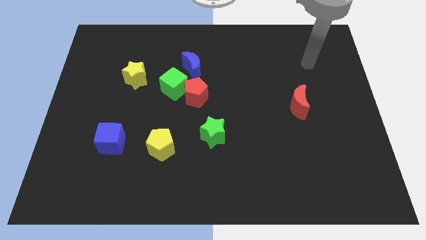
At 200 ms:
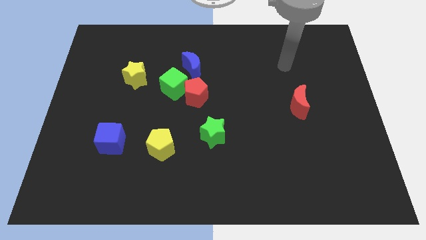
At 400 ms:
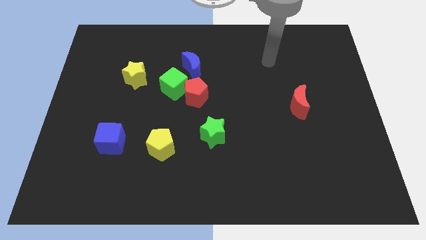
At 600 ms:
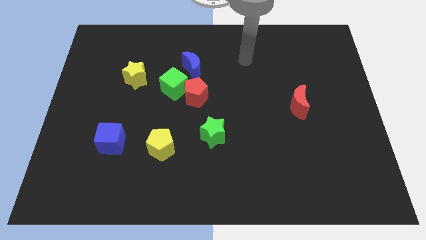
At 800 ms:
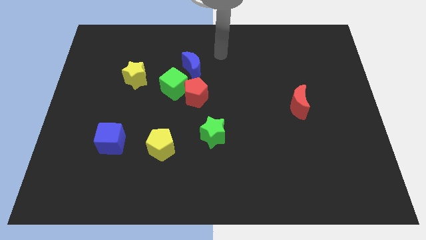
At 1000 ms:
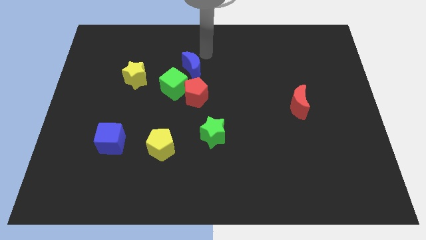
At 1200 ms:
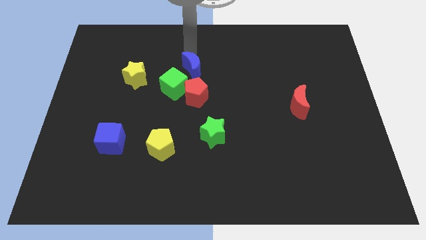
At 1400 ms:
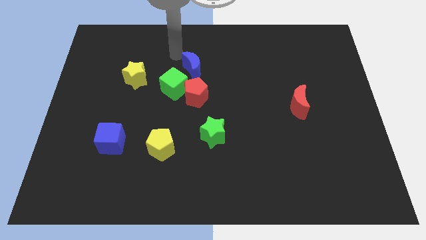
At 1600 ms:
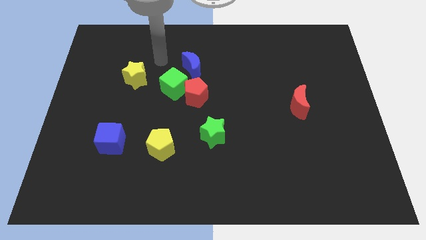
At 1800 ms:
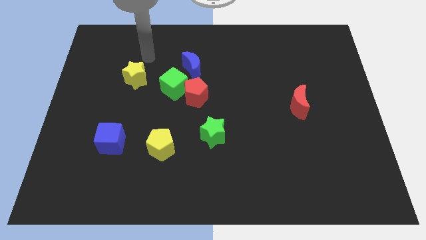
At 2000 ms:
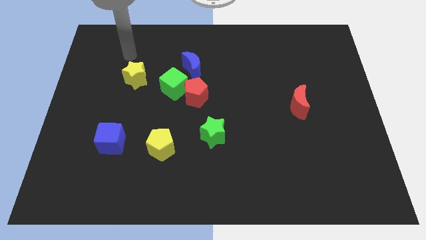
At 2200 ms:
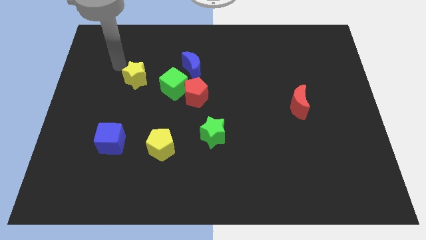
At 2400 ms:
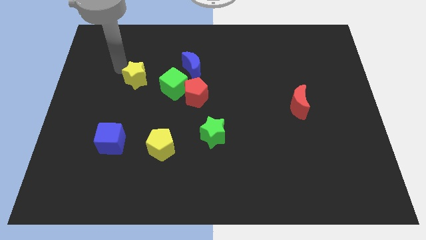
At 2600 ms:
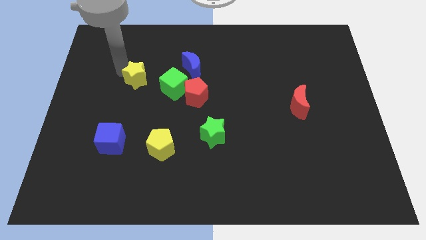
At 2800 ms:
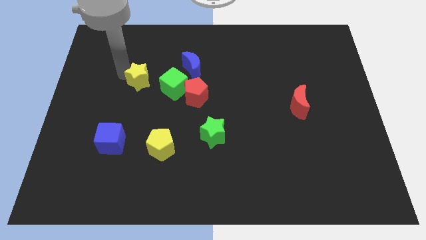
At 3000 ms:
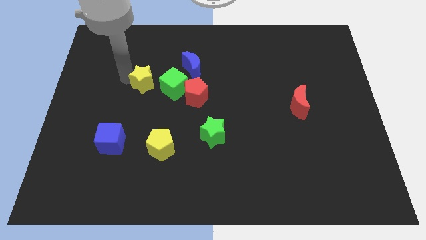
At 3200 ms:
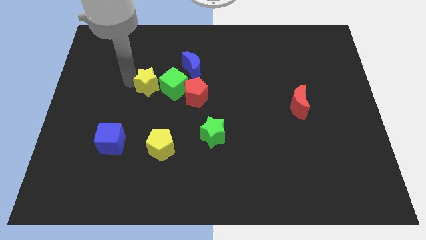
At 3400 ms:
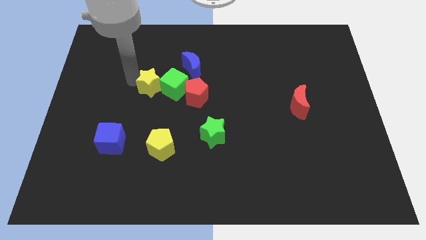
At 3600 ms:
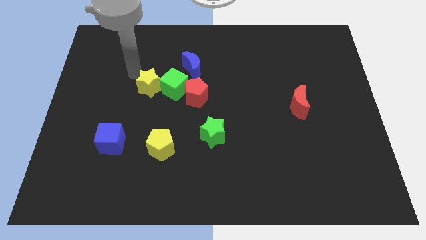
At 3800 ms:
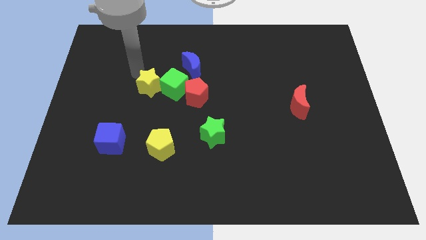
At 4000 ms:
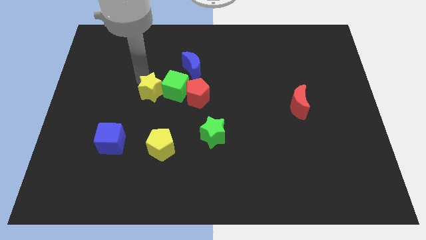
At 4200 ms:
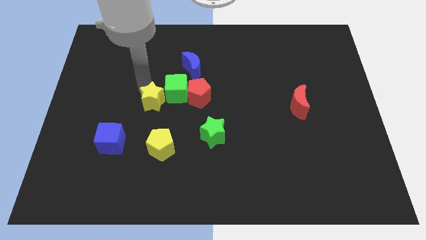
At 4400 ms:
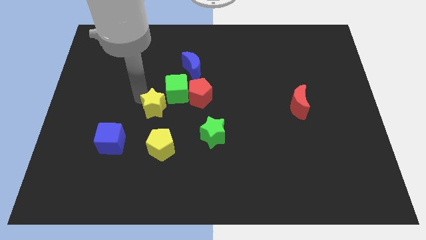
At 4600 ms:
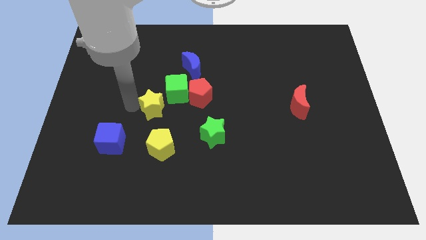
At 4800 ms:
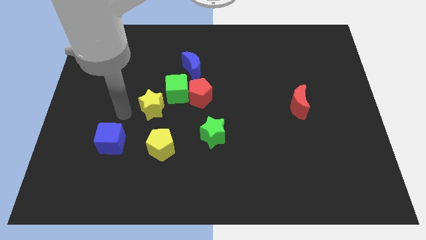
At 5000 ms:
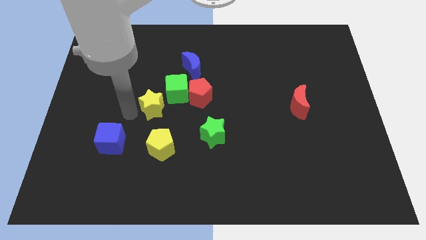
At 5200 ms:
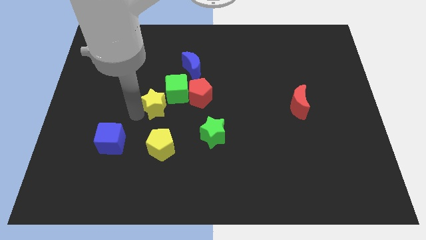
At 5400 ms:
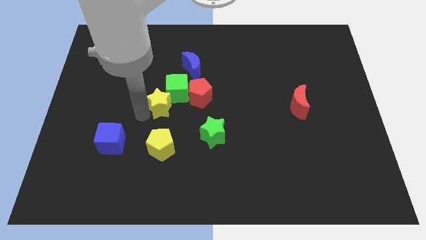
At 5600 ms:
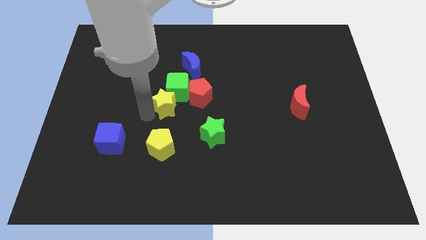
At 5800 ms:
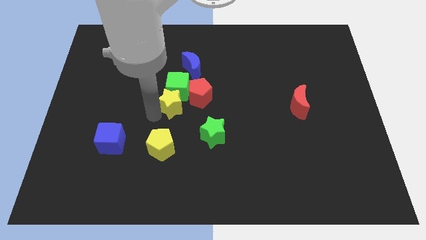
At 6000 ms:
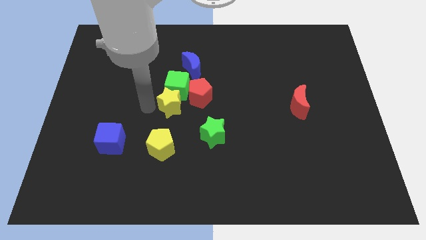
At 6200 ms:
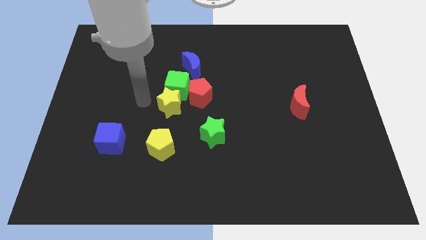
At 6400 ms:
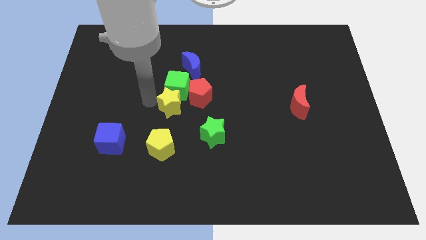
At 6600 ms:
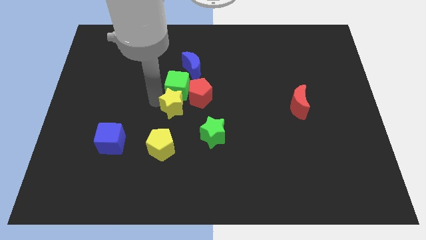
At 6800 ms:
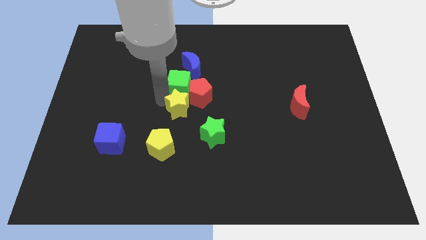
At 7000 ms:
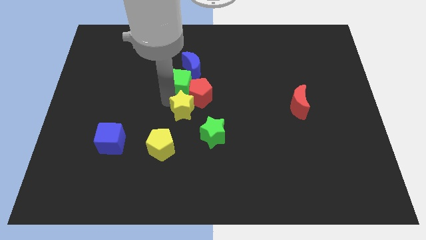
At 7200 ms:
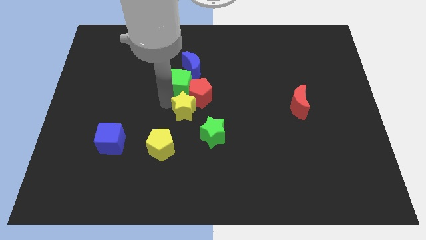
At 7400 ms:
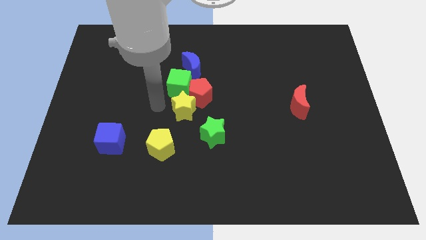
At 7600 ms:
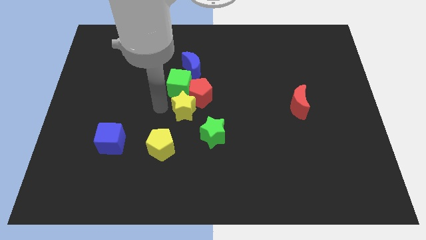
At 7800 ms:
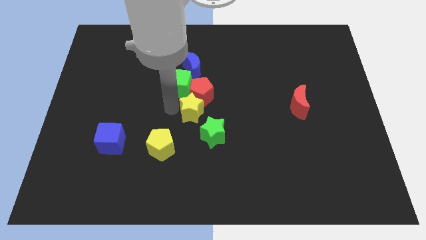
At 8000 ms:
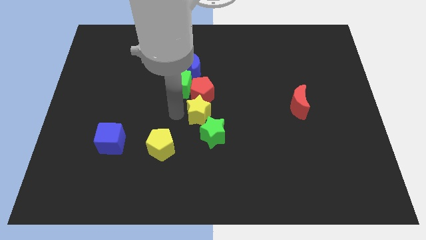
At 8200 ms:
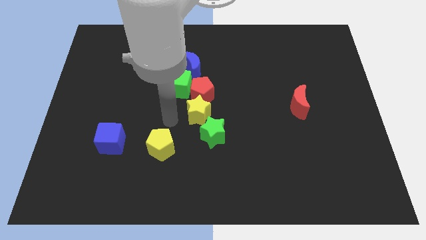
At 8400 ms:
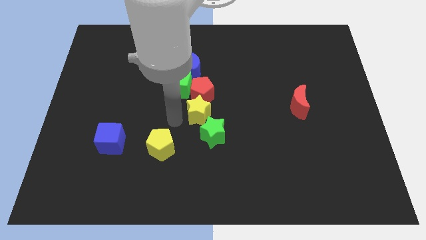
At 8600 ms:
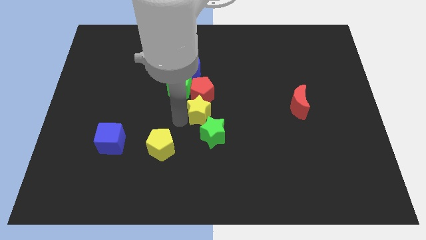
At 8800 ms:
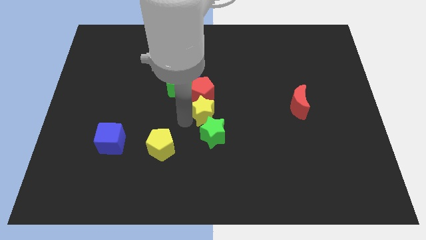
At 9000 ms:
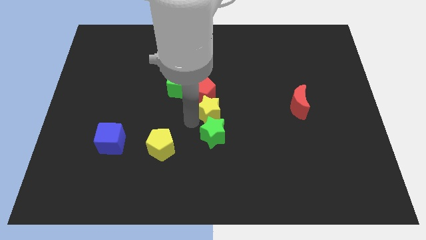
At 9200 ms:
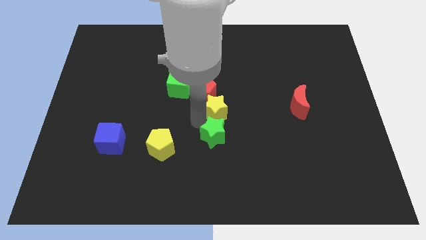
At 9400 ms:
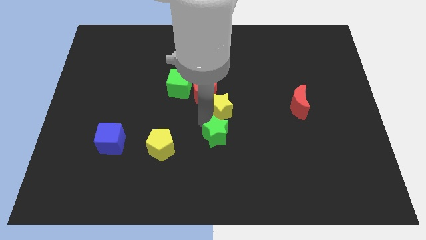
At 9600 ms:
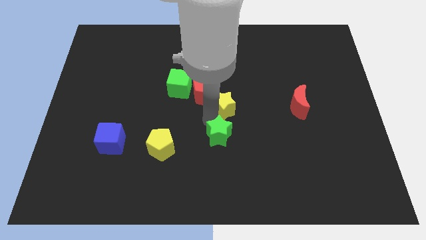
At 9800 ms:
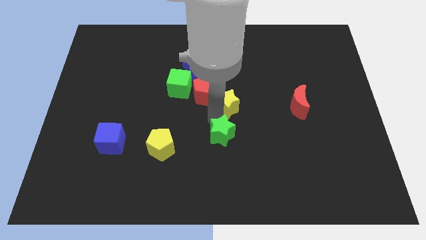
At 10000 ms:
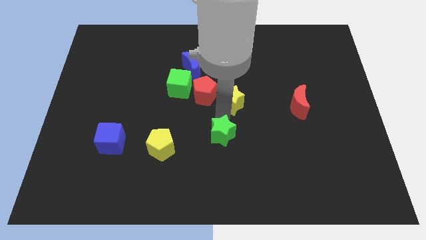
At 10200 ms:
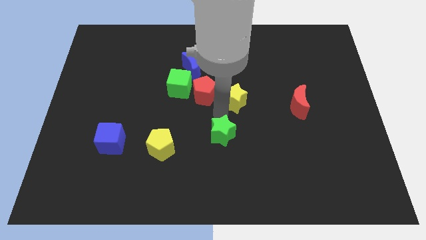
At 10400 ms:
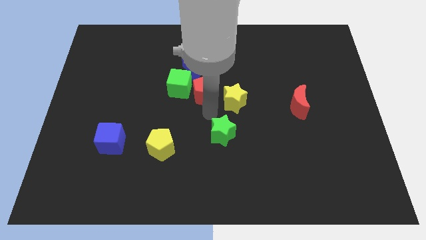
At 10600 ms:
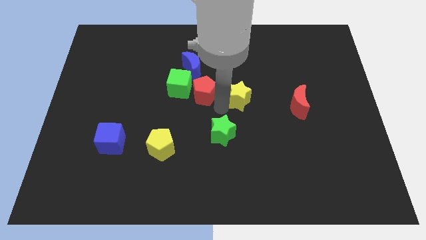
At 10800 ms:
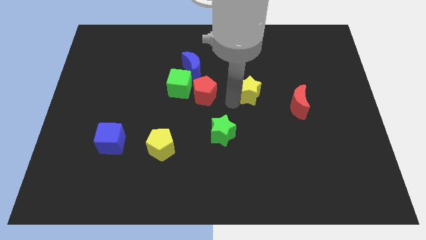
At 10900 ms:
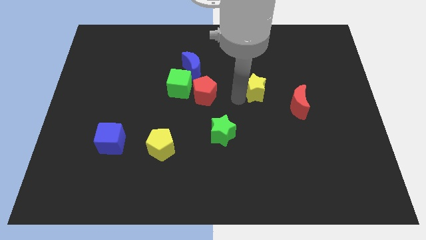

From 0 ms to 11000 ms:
move the yellow star to the top left of the red moon

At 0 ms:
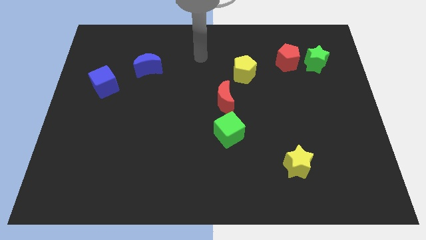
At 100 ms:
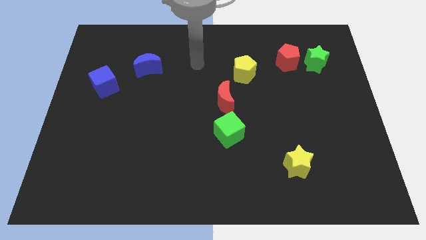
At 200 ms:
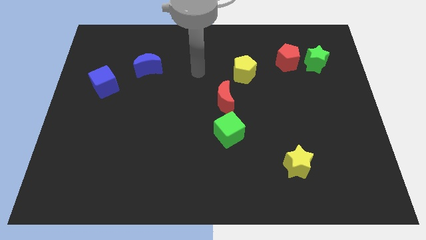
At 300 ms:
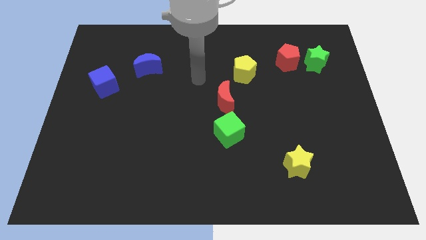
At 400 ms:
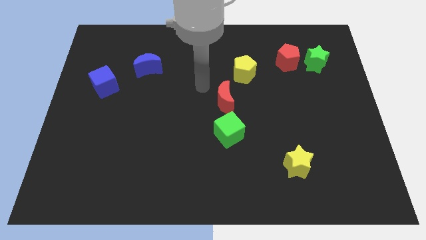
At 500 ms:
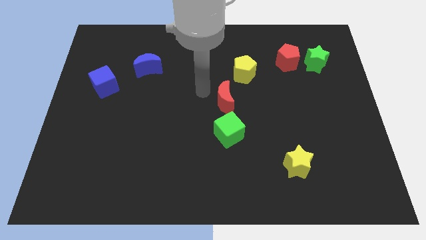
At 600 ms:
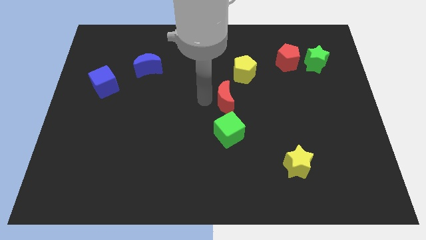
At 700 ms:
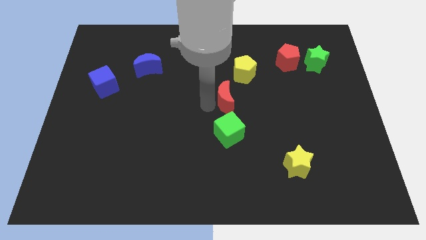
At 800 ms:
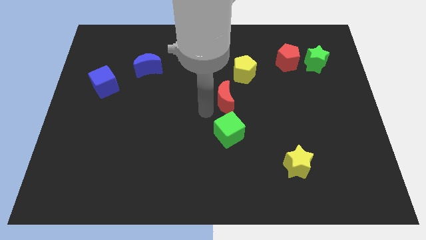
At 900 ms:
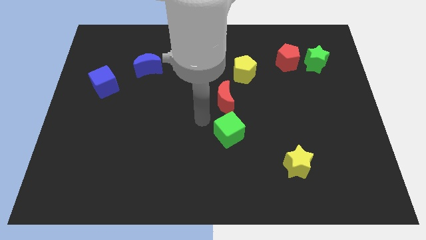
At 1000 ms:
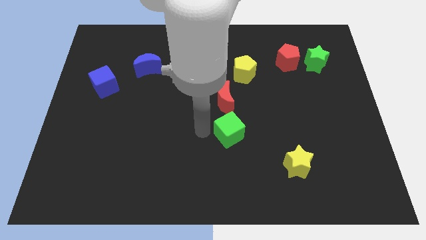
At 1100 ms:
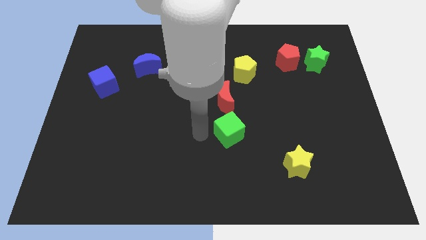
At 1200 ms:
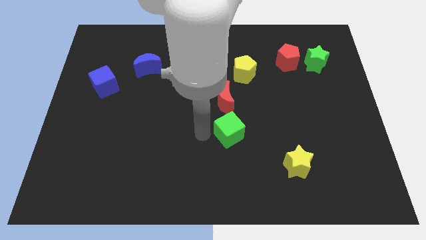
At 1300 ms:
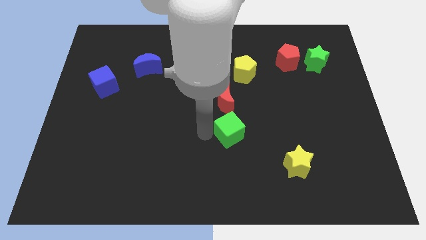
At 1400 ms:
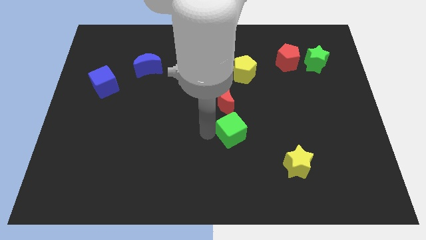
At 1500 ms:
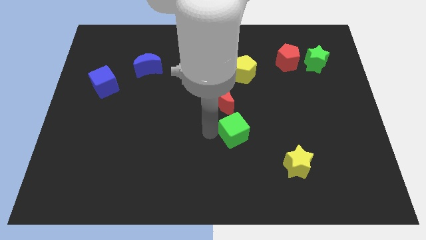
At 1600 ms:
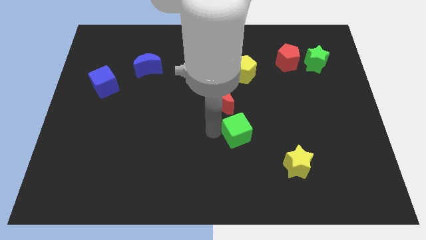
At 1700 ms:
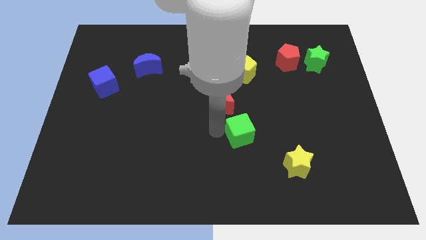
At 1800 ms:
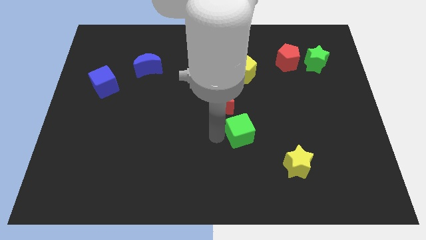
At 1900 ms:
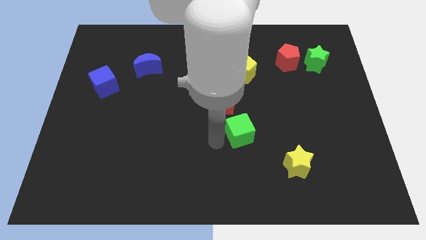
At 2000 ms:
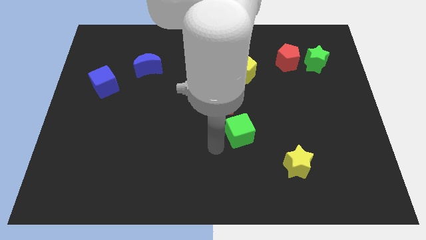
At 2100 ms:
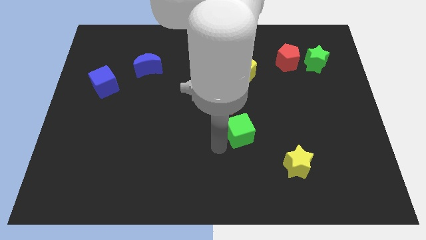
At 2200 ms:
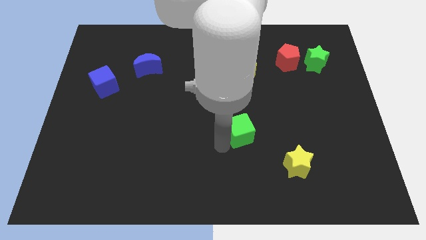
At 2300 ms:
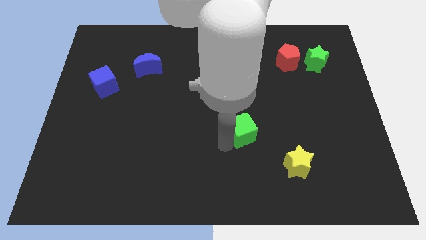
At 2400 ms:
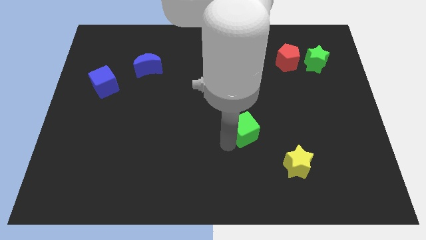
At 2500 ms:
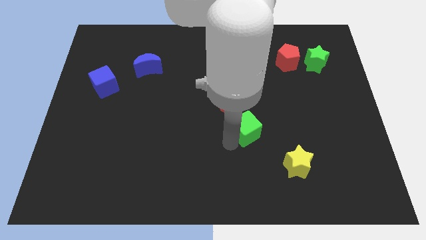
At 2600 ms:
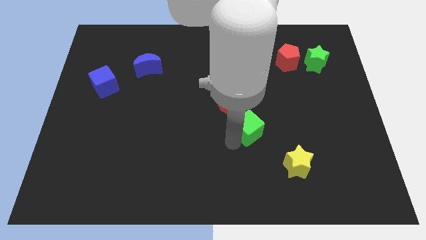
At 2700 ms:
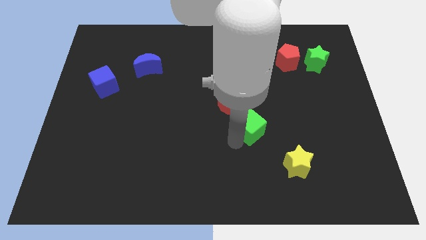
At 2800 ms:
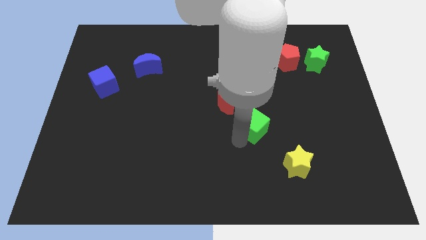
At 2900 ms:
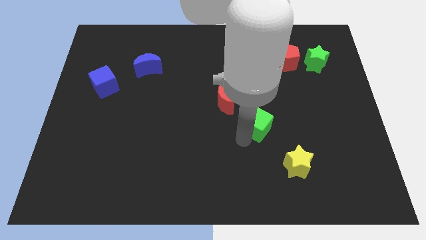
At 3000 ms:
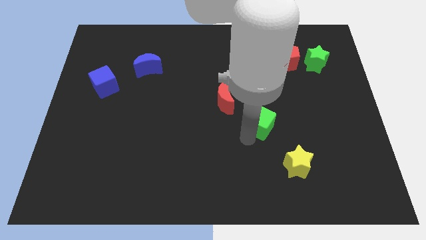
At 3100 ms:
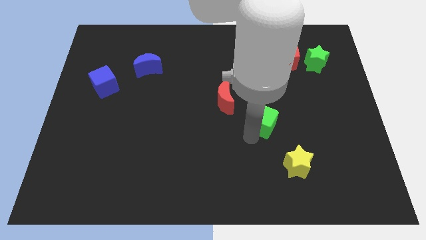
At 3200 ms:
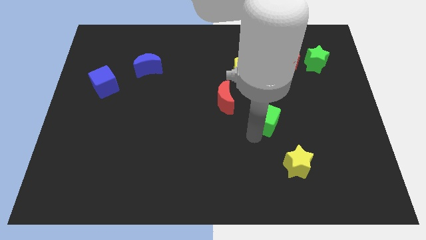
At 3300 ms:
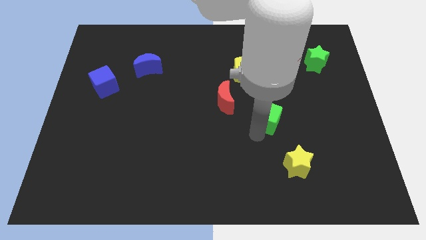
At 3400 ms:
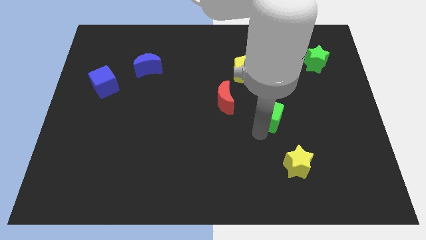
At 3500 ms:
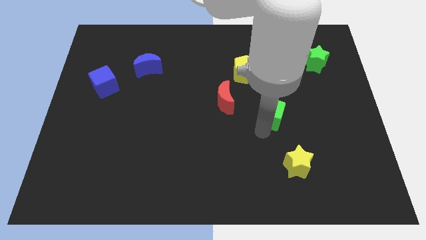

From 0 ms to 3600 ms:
slide the green cube right of the red moon
